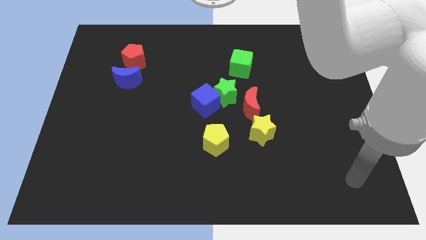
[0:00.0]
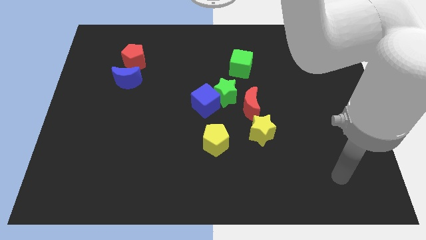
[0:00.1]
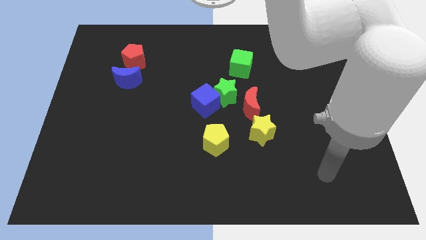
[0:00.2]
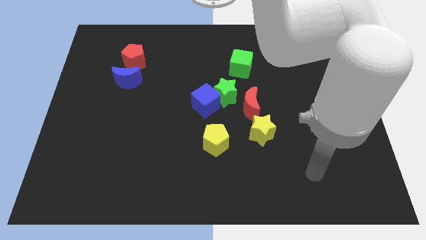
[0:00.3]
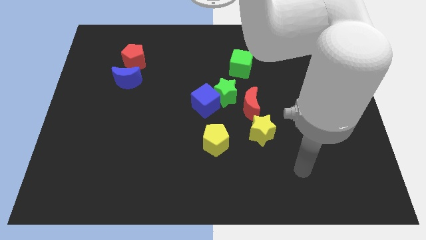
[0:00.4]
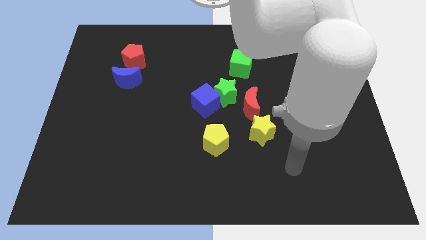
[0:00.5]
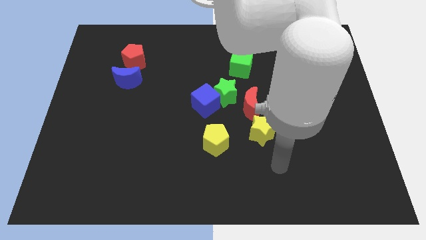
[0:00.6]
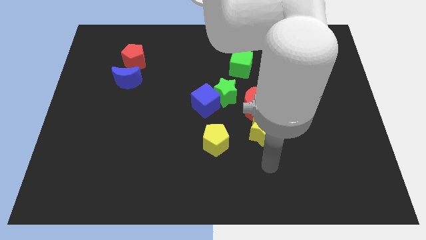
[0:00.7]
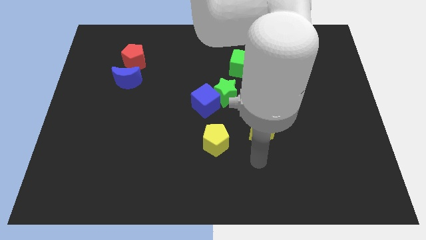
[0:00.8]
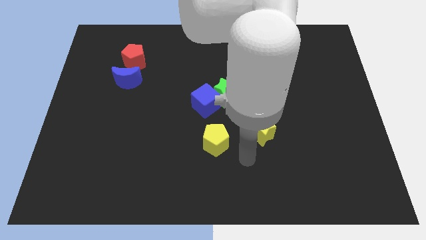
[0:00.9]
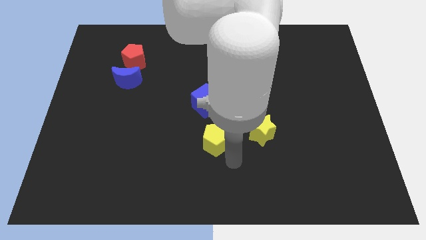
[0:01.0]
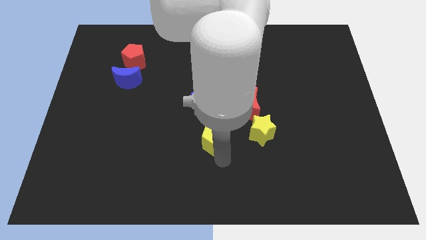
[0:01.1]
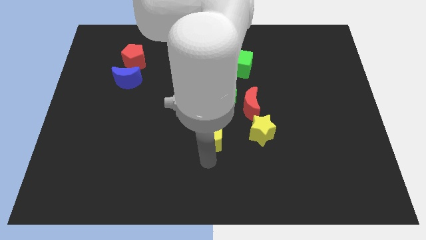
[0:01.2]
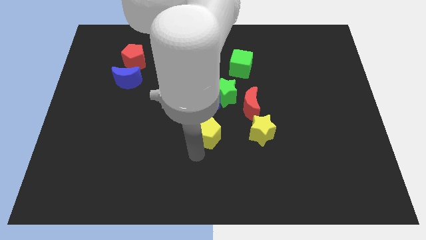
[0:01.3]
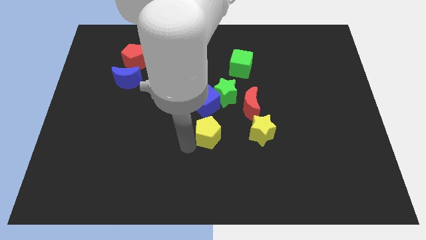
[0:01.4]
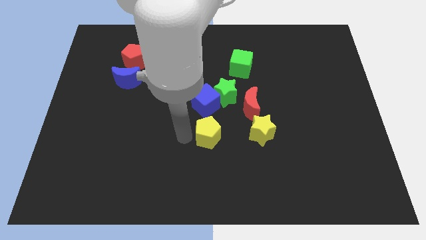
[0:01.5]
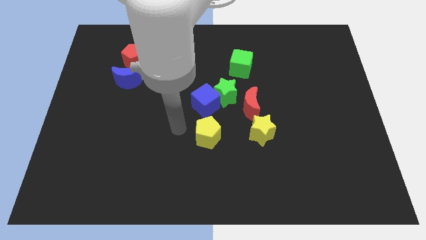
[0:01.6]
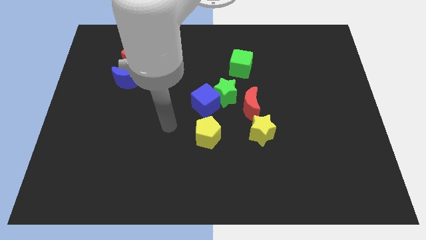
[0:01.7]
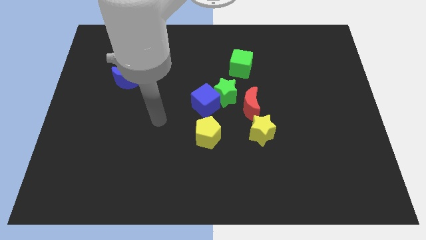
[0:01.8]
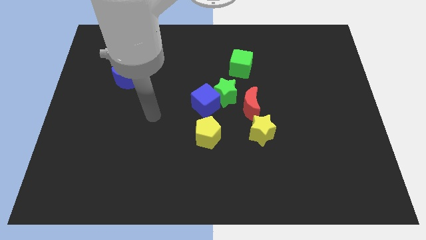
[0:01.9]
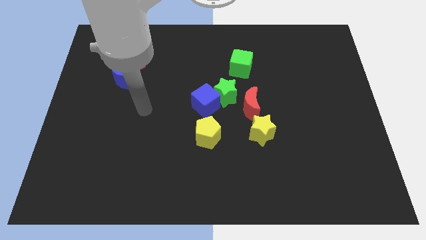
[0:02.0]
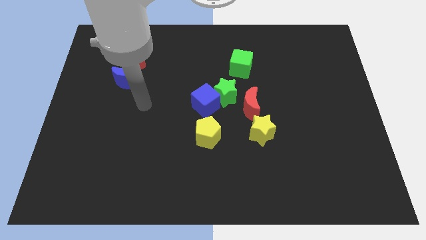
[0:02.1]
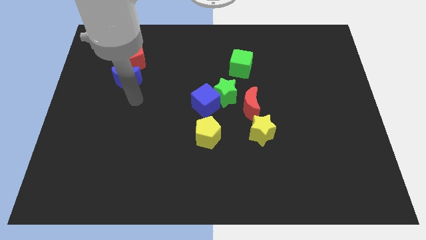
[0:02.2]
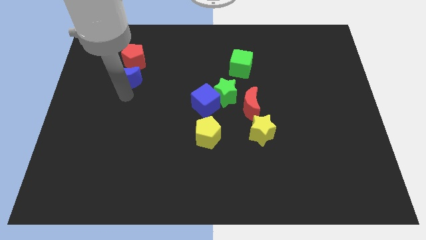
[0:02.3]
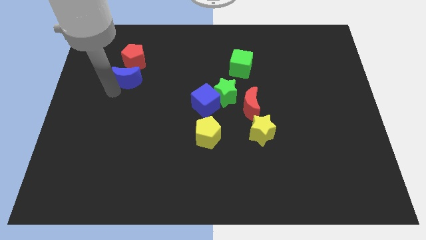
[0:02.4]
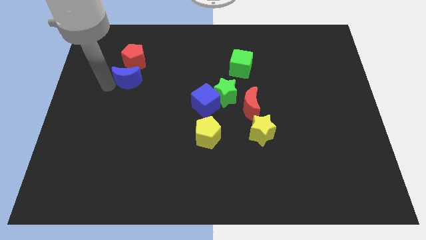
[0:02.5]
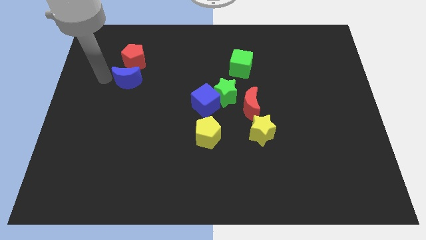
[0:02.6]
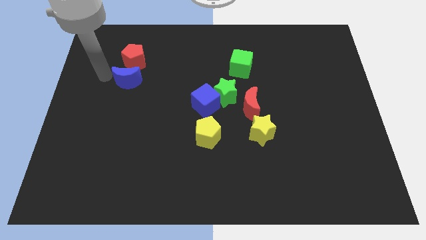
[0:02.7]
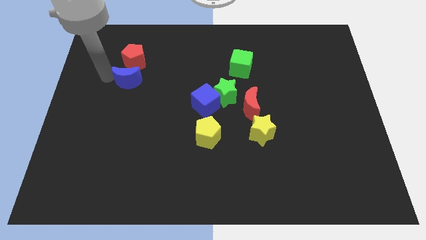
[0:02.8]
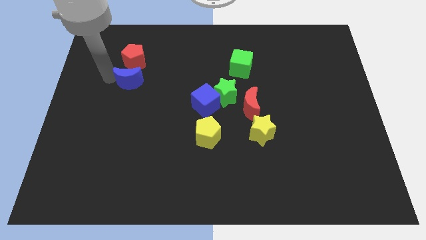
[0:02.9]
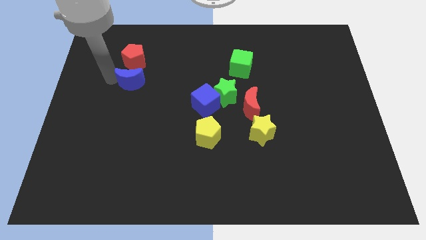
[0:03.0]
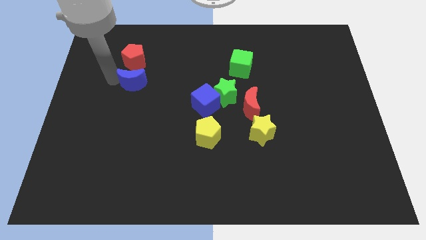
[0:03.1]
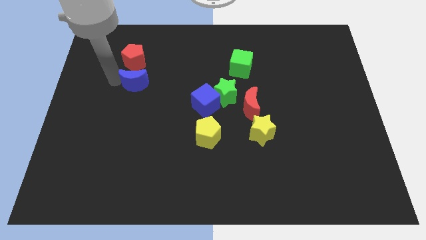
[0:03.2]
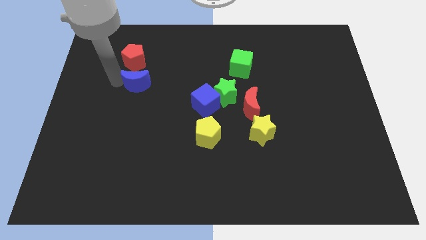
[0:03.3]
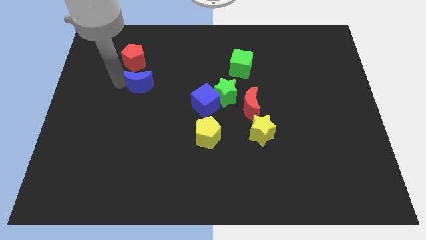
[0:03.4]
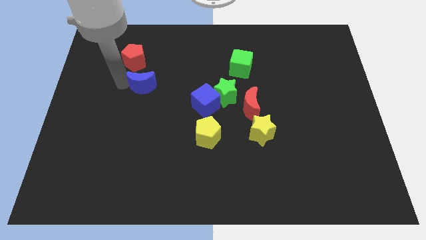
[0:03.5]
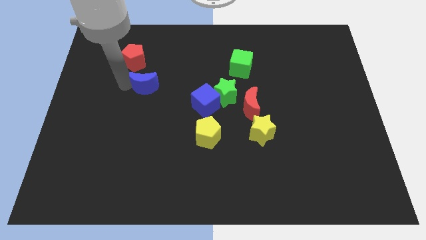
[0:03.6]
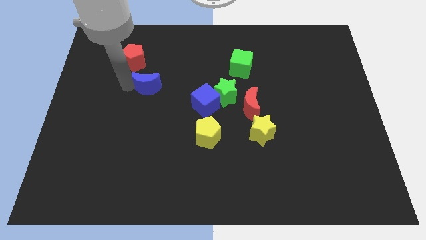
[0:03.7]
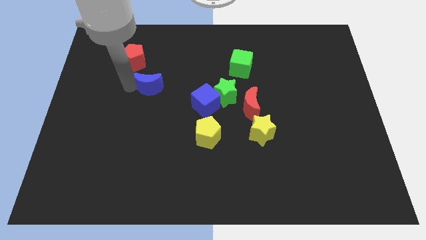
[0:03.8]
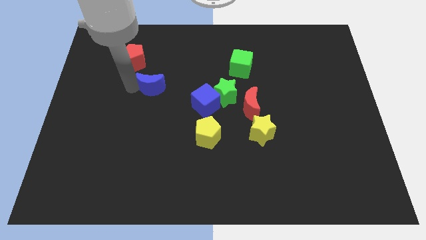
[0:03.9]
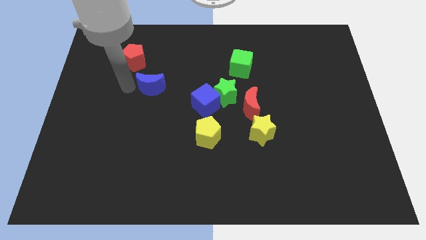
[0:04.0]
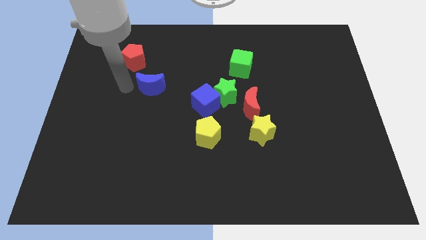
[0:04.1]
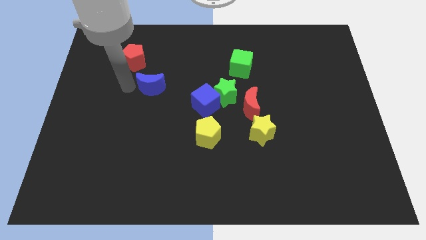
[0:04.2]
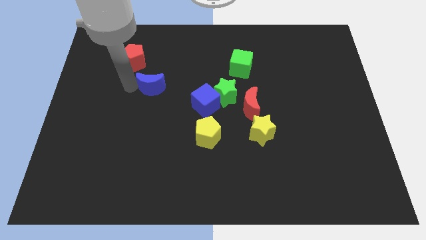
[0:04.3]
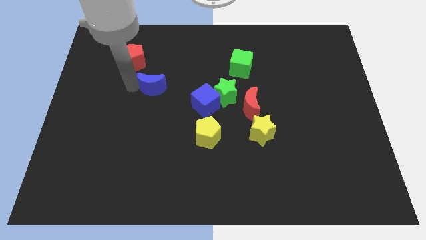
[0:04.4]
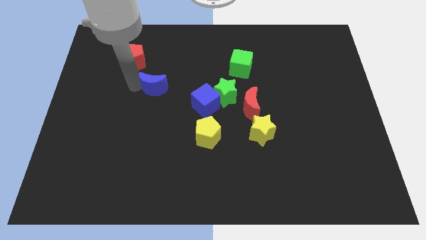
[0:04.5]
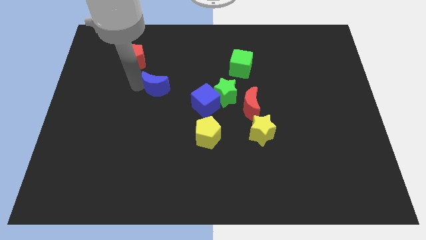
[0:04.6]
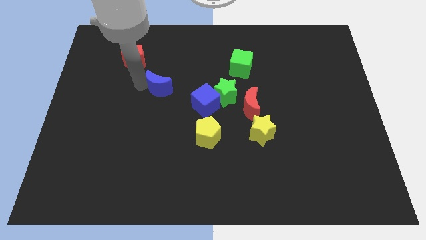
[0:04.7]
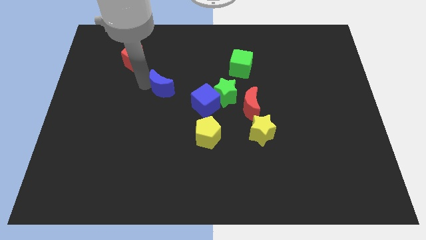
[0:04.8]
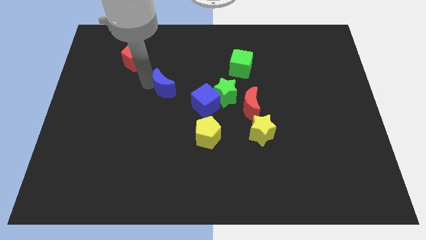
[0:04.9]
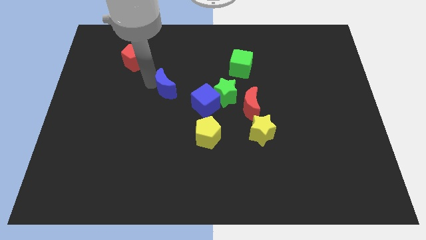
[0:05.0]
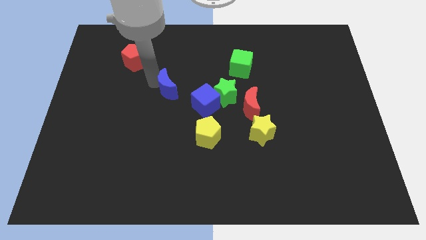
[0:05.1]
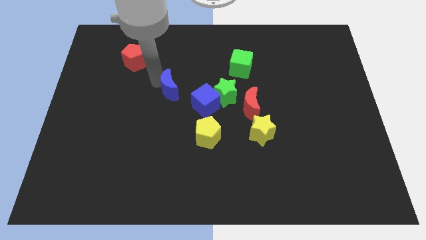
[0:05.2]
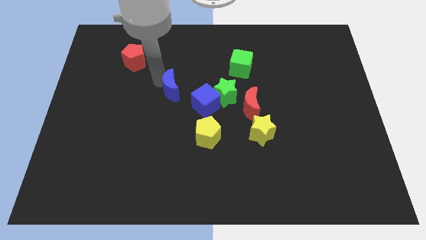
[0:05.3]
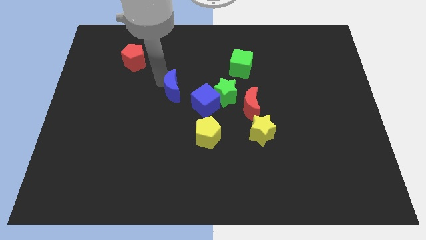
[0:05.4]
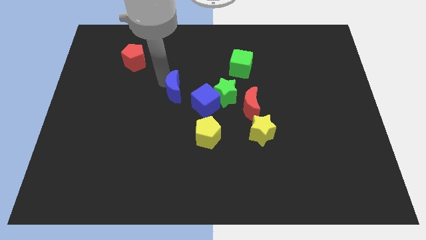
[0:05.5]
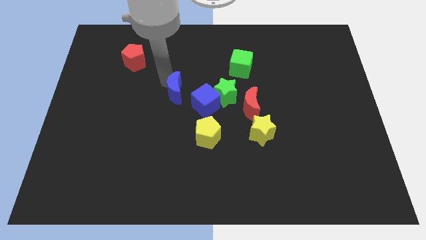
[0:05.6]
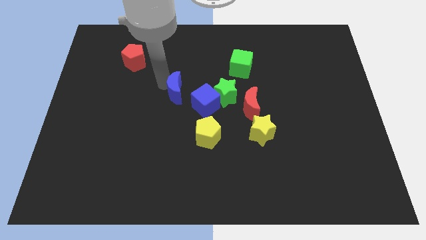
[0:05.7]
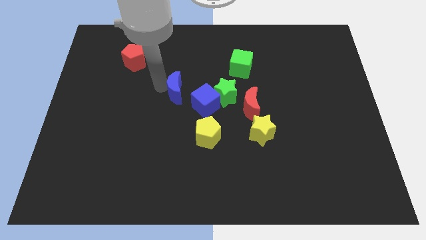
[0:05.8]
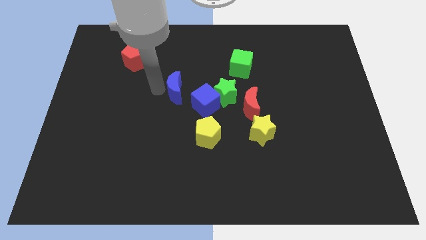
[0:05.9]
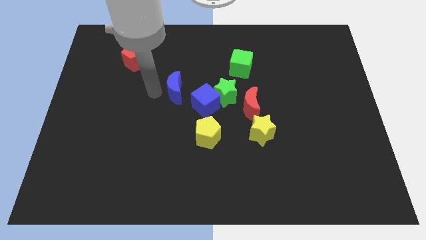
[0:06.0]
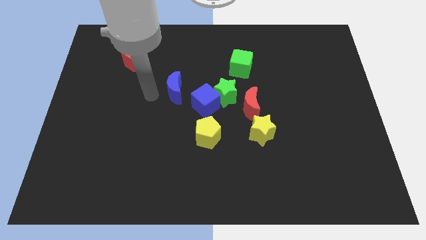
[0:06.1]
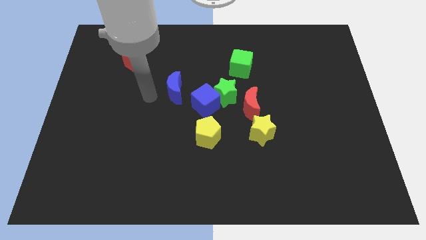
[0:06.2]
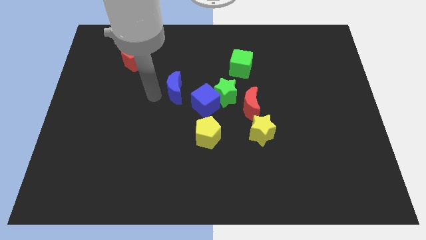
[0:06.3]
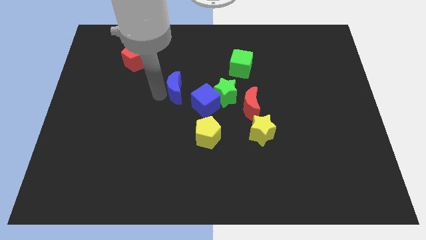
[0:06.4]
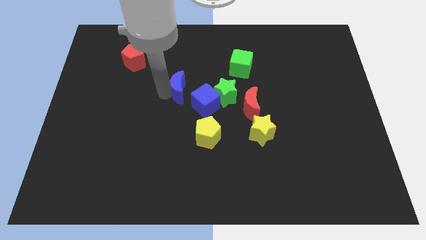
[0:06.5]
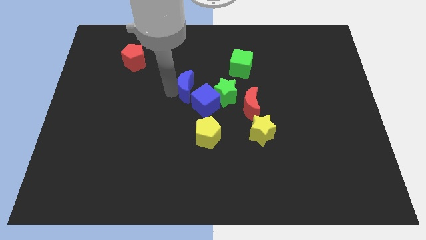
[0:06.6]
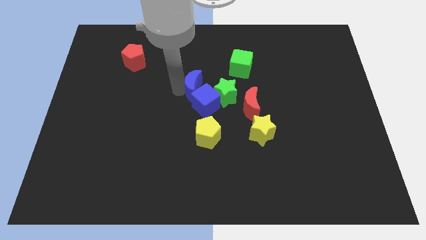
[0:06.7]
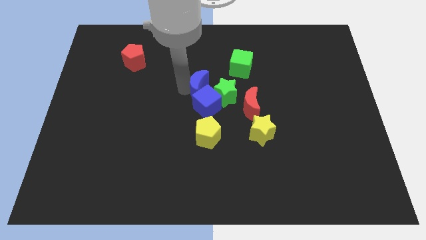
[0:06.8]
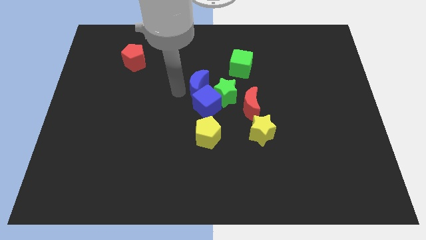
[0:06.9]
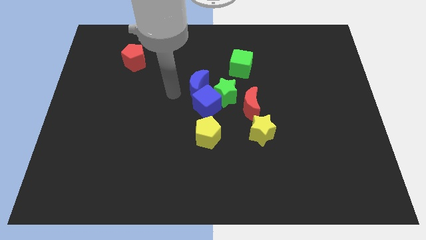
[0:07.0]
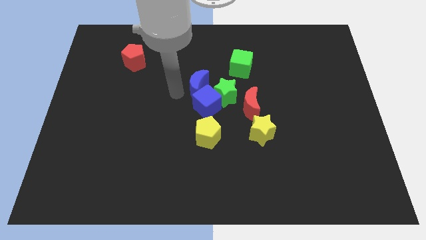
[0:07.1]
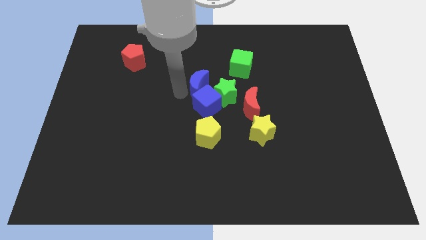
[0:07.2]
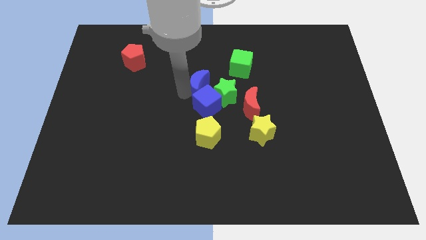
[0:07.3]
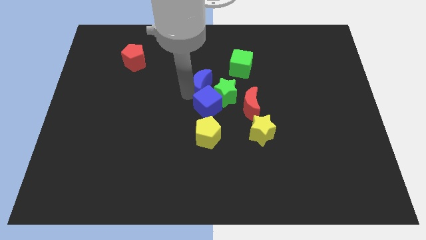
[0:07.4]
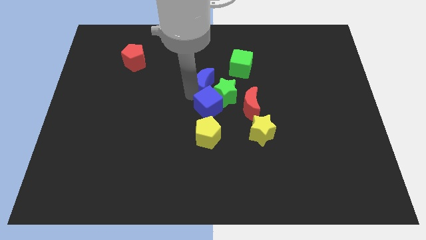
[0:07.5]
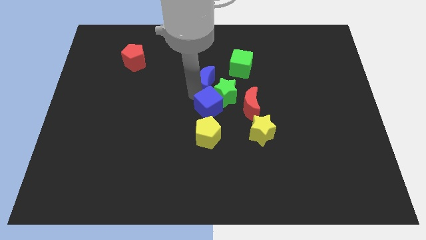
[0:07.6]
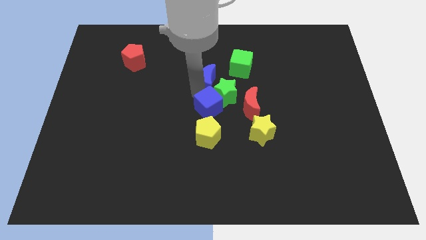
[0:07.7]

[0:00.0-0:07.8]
slide the blue moon right

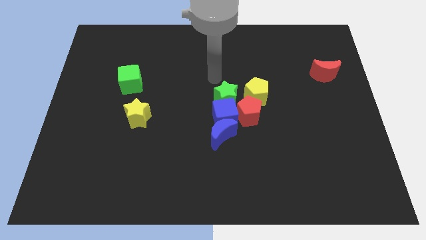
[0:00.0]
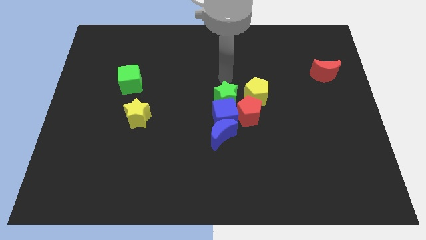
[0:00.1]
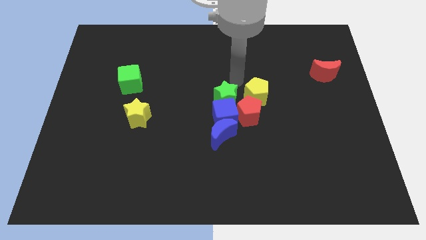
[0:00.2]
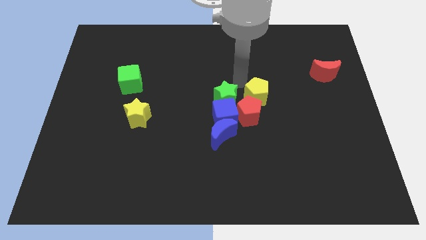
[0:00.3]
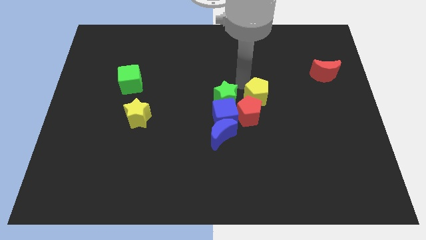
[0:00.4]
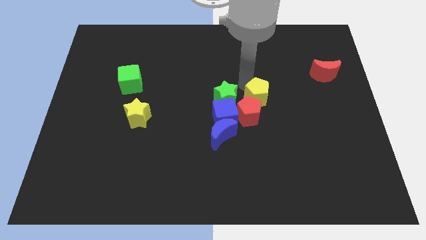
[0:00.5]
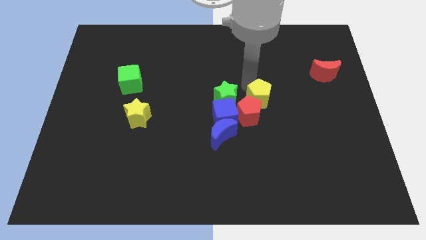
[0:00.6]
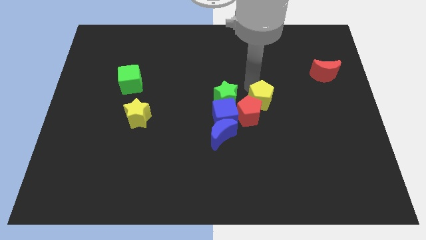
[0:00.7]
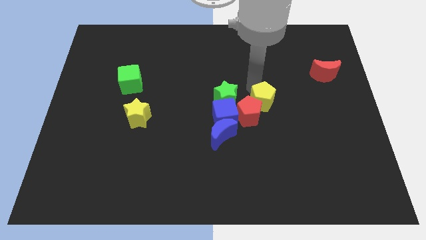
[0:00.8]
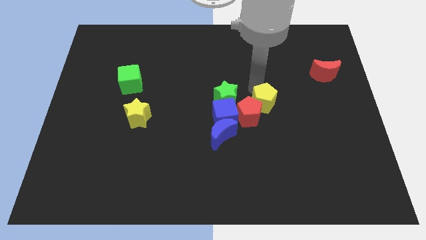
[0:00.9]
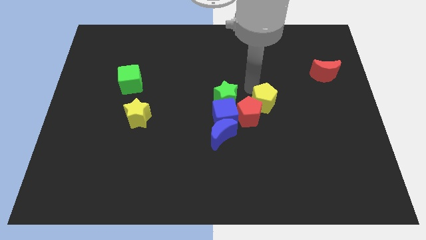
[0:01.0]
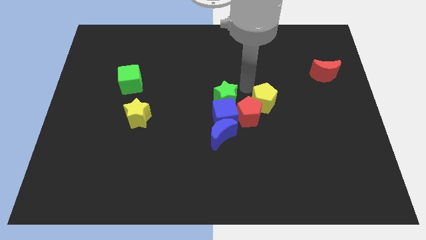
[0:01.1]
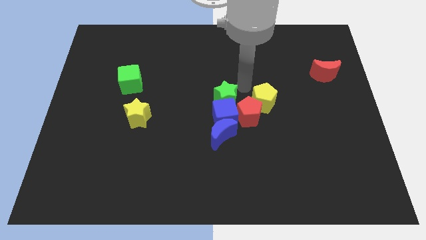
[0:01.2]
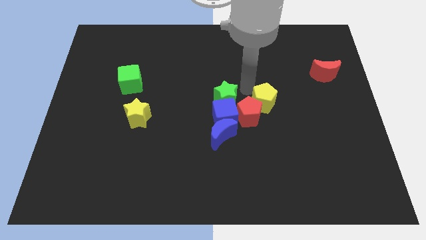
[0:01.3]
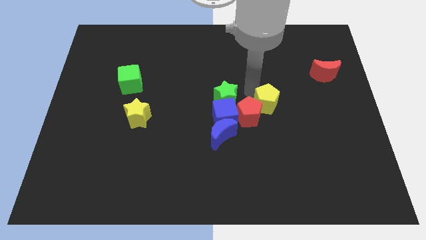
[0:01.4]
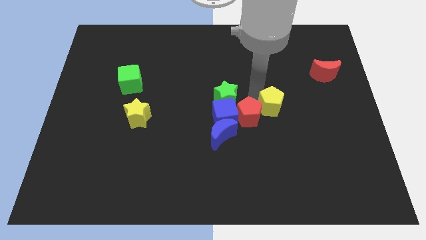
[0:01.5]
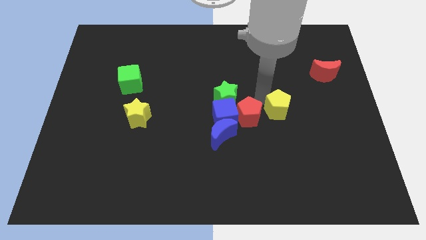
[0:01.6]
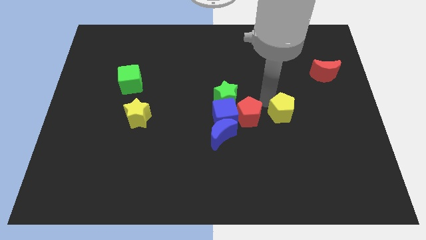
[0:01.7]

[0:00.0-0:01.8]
slide the yellow pentagon a bit down and right
